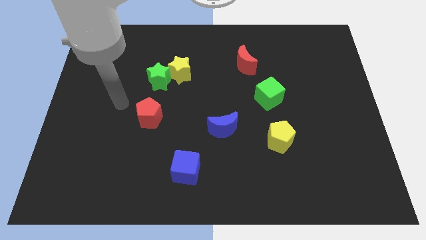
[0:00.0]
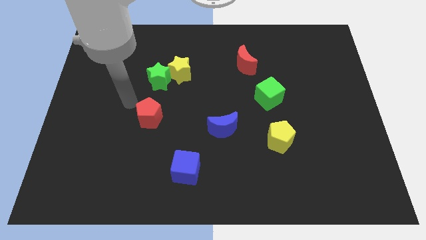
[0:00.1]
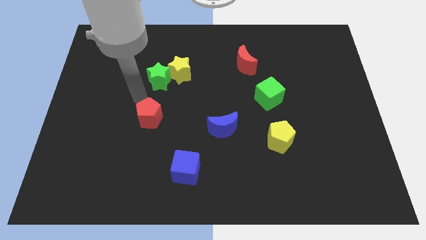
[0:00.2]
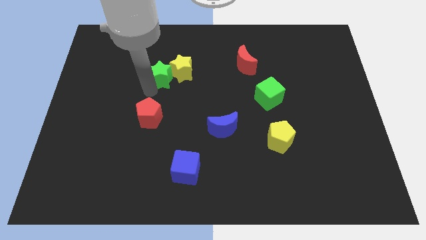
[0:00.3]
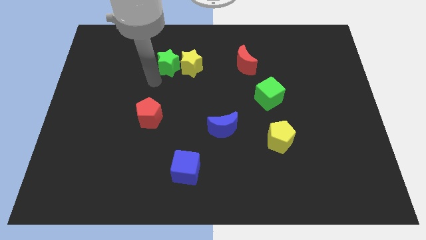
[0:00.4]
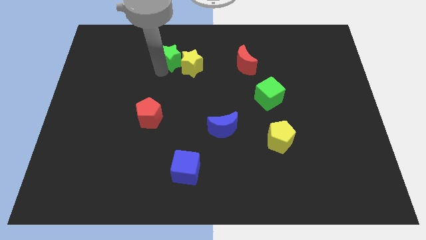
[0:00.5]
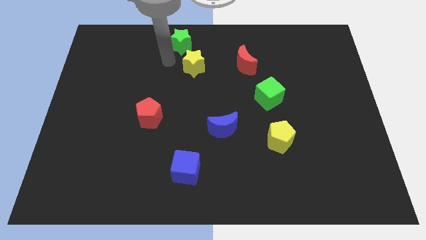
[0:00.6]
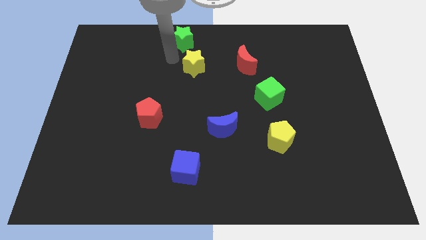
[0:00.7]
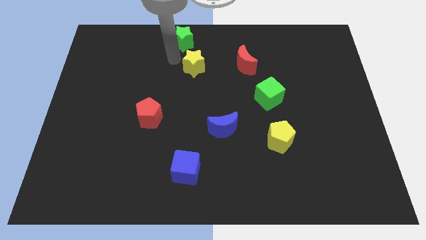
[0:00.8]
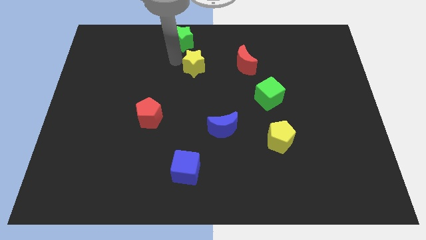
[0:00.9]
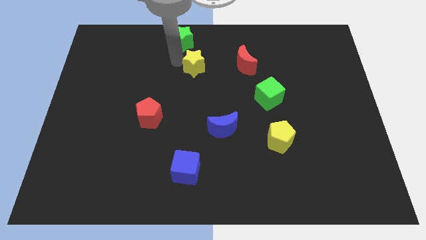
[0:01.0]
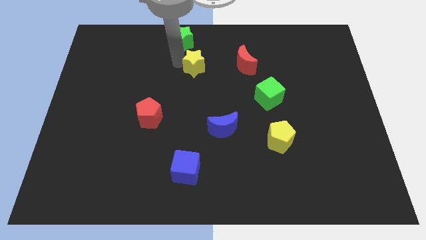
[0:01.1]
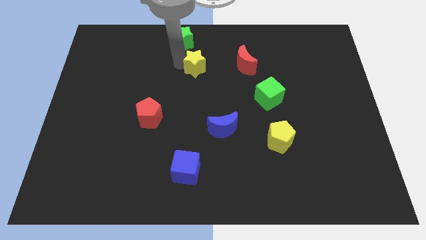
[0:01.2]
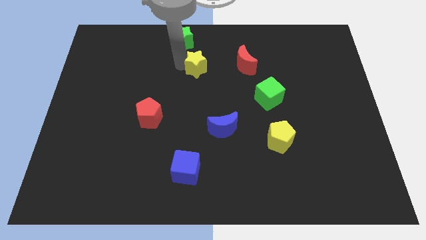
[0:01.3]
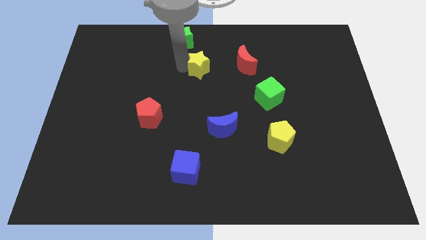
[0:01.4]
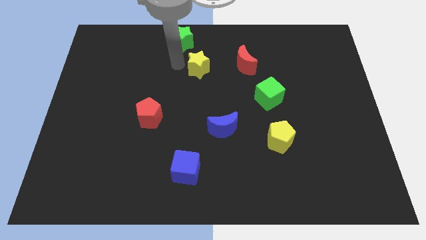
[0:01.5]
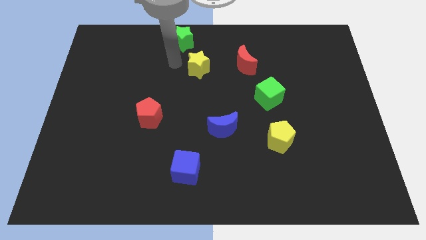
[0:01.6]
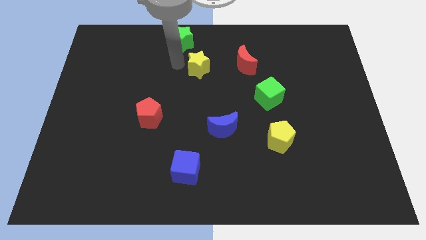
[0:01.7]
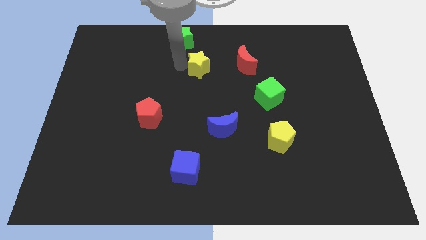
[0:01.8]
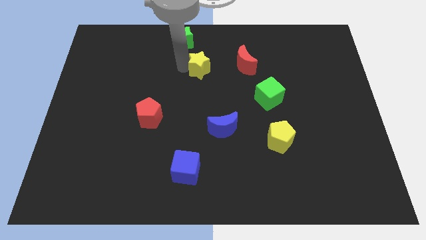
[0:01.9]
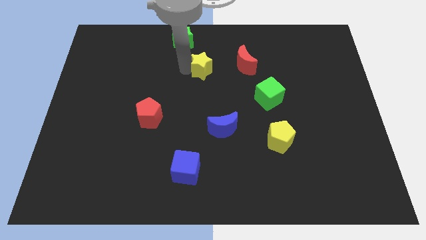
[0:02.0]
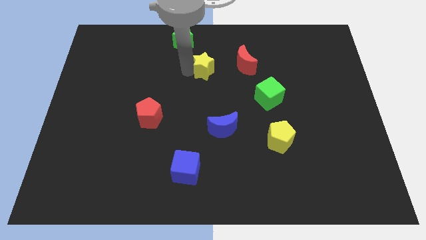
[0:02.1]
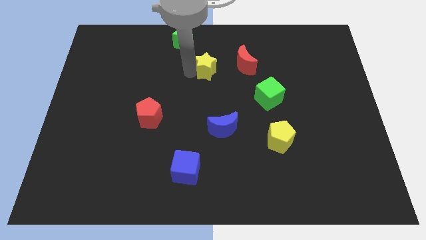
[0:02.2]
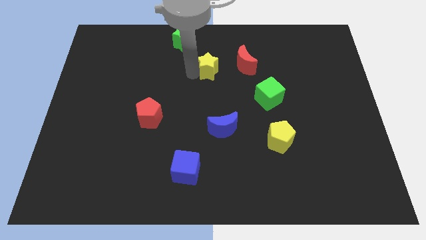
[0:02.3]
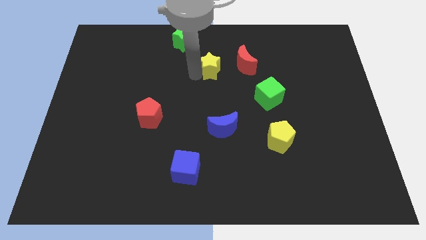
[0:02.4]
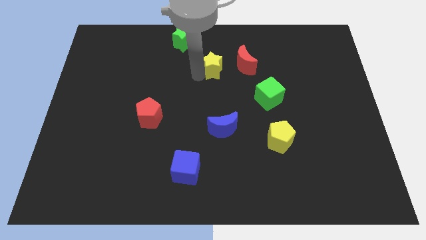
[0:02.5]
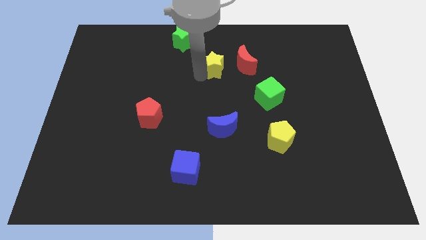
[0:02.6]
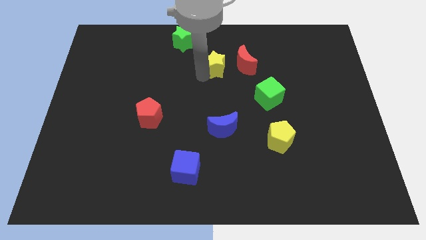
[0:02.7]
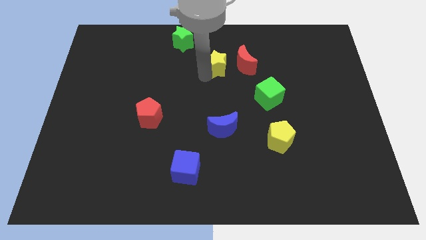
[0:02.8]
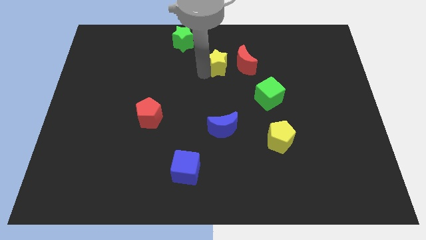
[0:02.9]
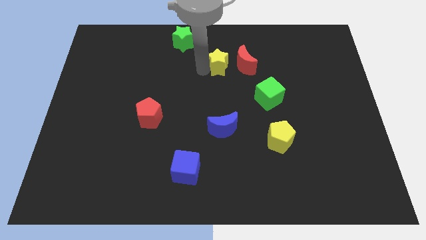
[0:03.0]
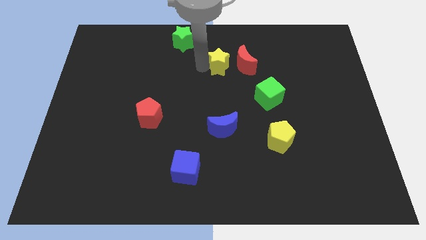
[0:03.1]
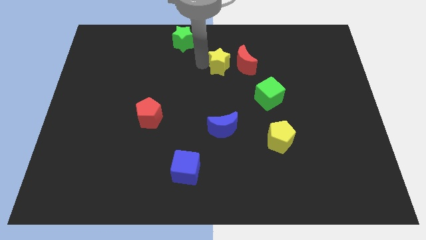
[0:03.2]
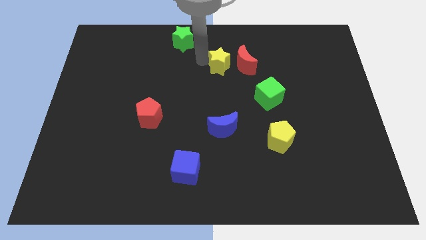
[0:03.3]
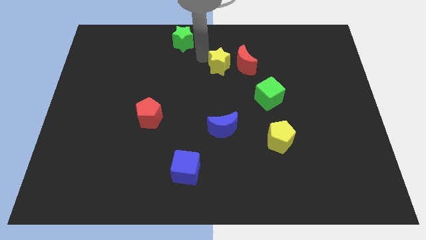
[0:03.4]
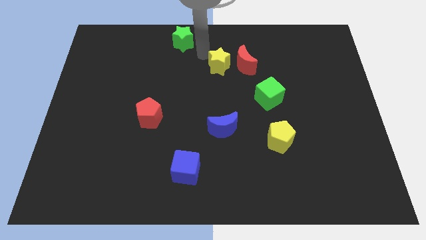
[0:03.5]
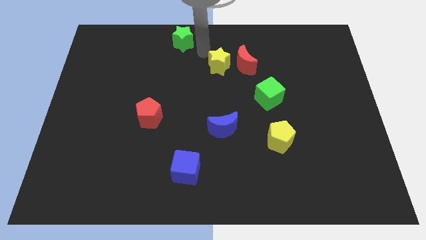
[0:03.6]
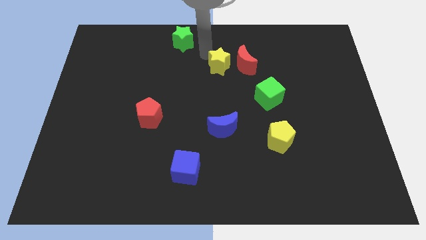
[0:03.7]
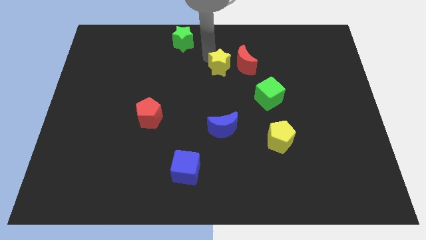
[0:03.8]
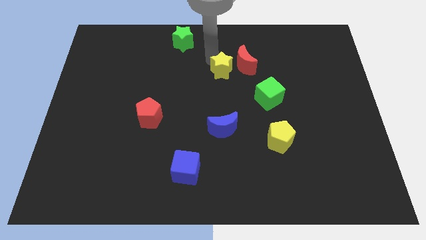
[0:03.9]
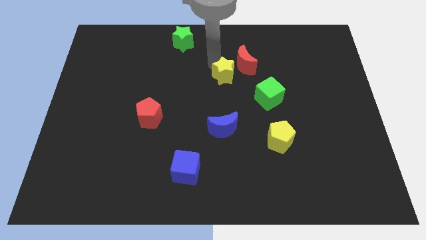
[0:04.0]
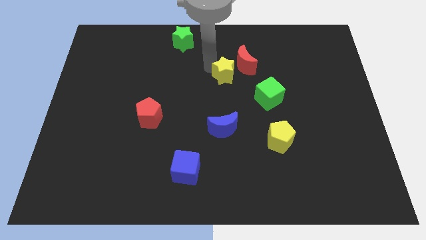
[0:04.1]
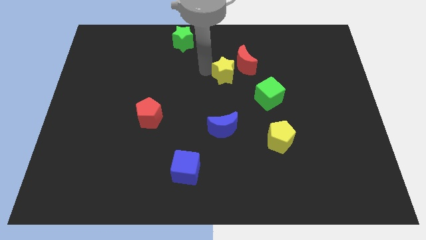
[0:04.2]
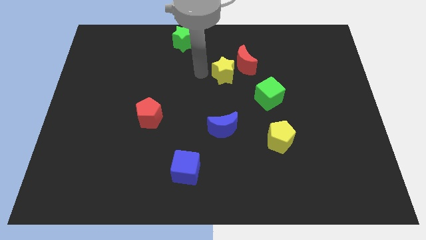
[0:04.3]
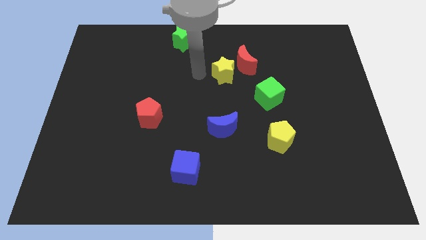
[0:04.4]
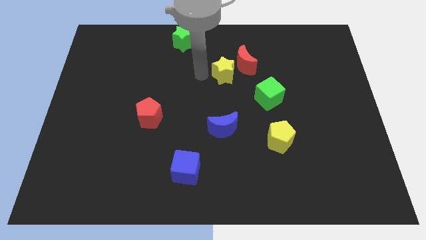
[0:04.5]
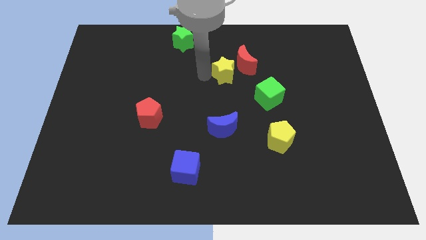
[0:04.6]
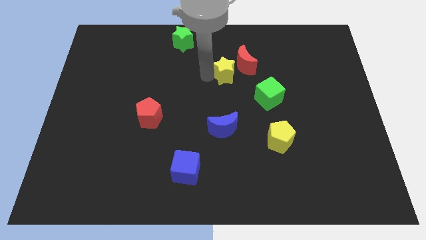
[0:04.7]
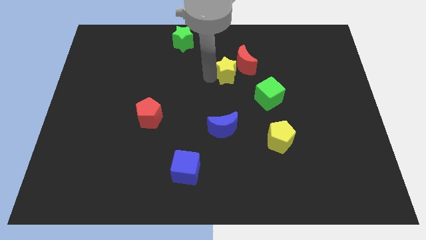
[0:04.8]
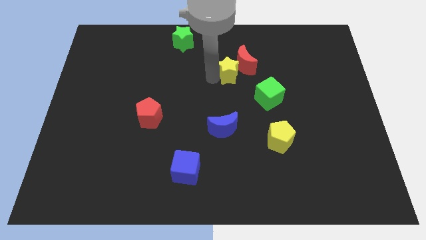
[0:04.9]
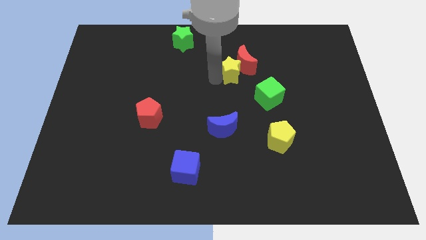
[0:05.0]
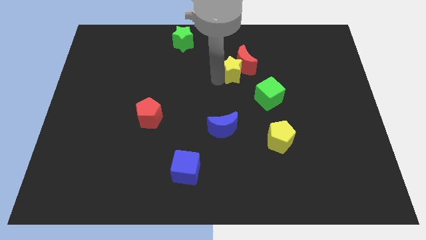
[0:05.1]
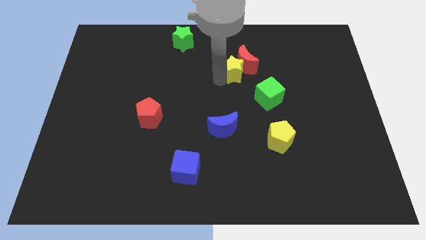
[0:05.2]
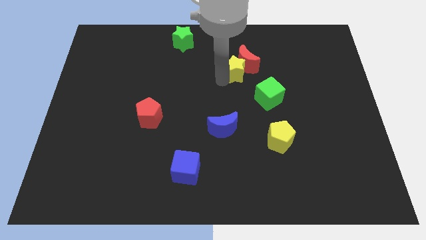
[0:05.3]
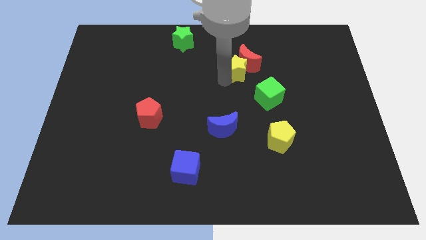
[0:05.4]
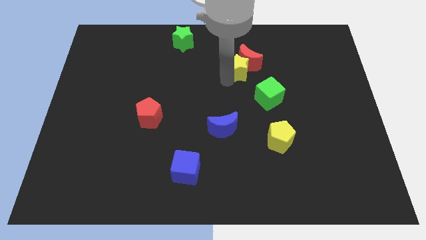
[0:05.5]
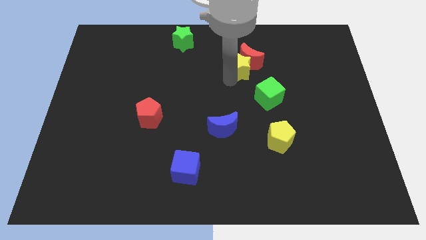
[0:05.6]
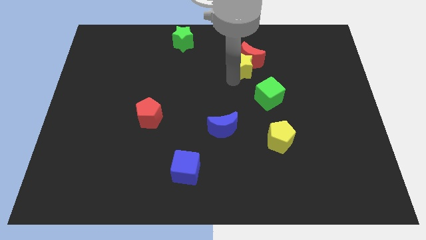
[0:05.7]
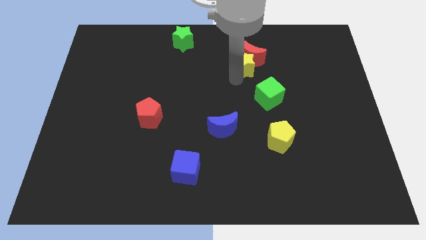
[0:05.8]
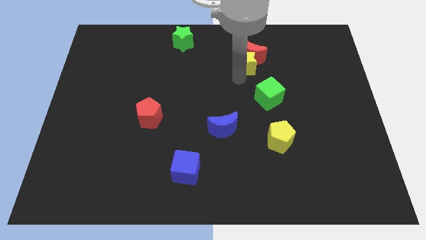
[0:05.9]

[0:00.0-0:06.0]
move the yellow star above the green cube

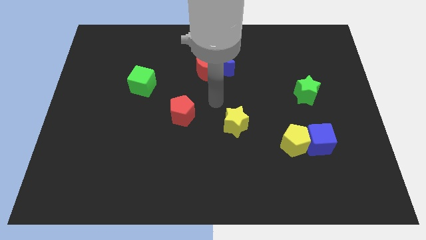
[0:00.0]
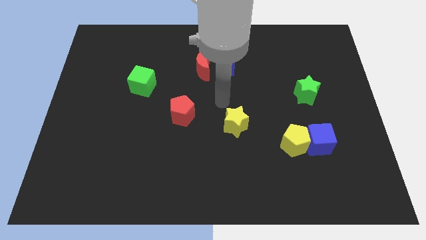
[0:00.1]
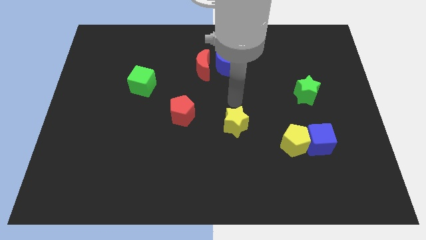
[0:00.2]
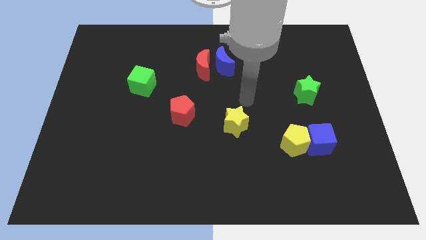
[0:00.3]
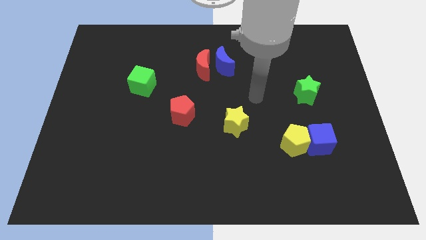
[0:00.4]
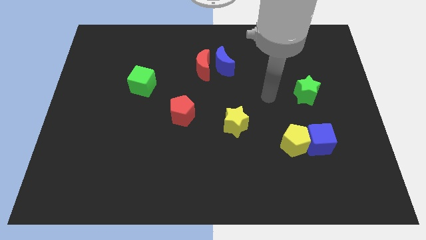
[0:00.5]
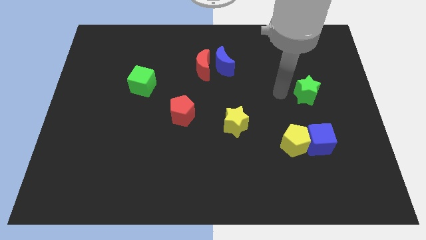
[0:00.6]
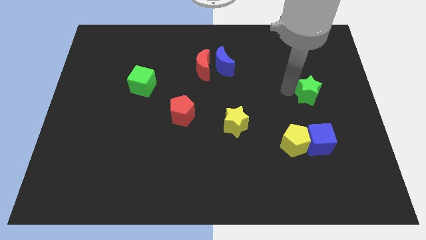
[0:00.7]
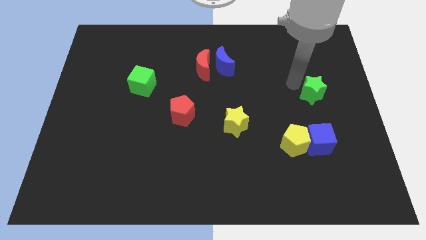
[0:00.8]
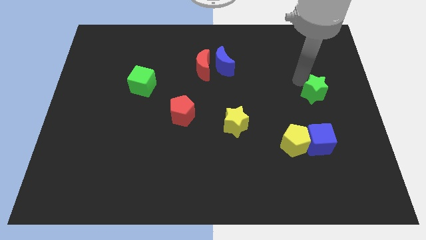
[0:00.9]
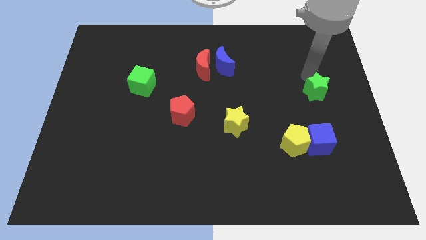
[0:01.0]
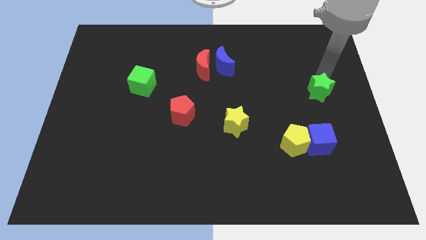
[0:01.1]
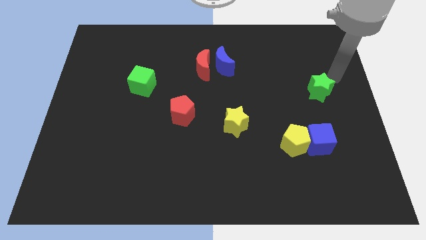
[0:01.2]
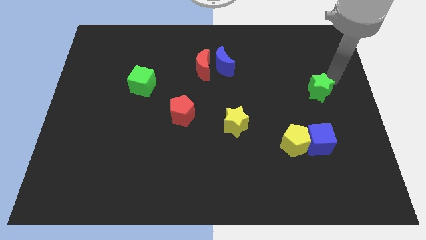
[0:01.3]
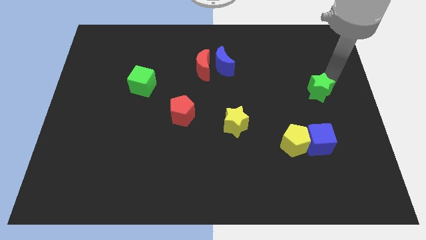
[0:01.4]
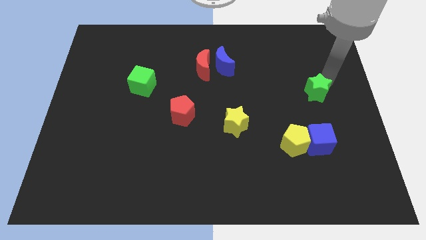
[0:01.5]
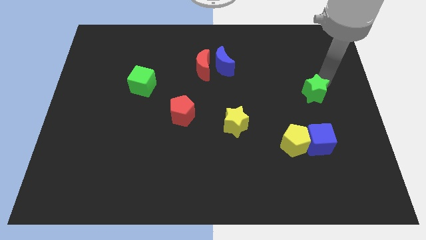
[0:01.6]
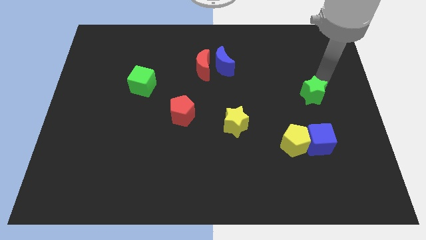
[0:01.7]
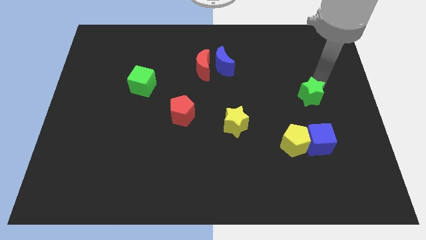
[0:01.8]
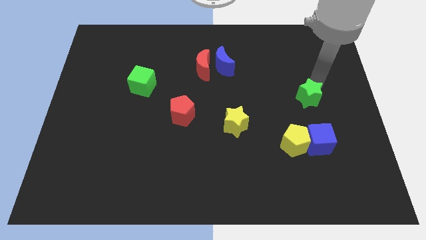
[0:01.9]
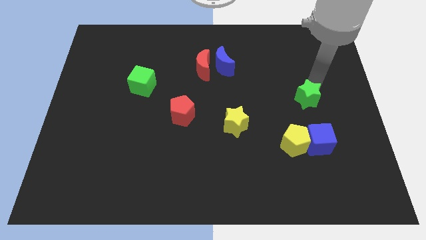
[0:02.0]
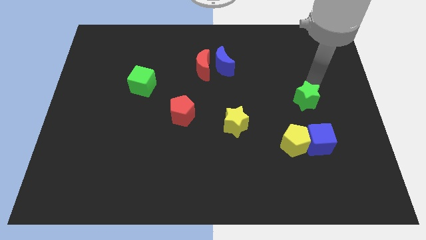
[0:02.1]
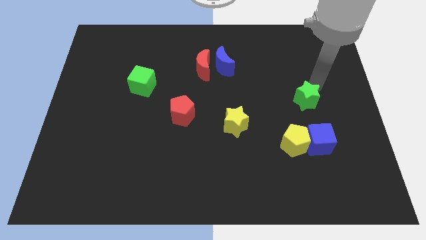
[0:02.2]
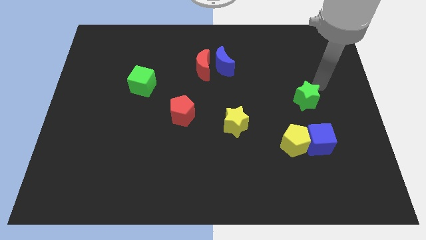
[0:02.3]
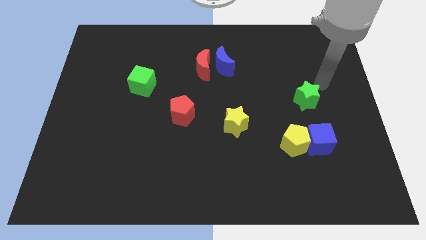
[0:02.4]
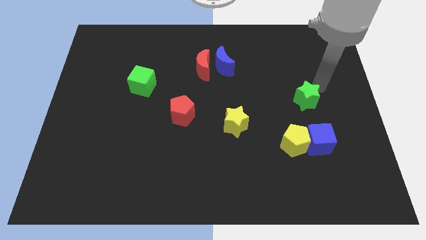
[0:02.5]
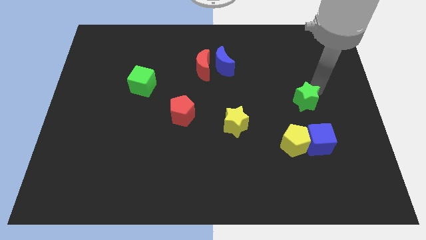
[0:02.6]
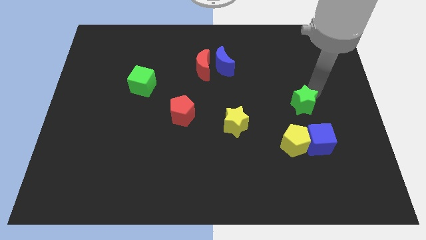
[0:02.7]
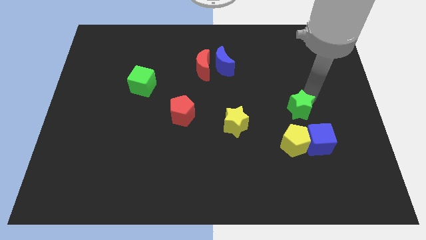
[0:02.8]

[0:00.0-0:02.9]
put the green star to the top left of the blue cube
